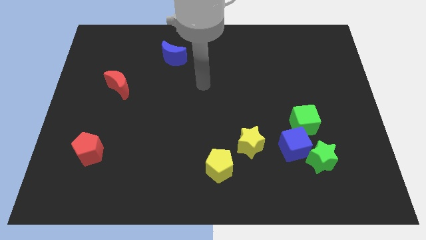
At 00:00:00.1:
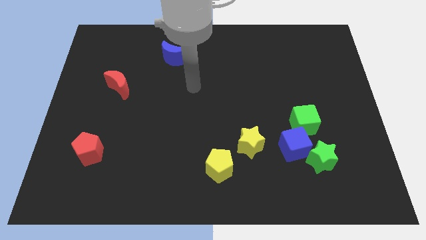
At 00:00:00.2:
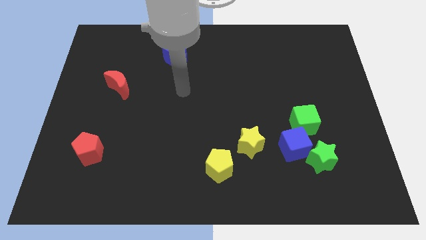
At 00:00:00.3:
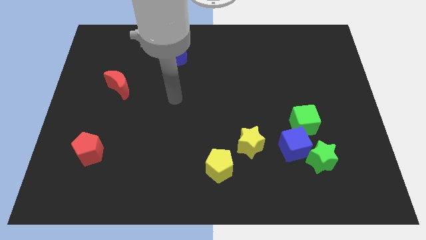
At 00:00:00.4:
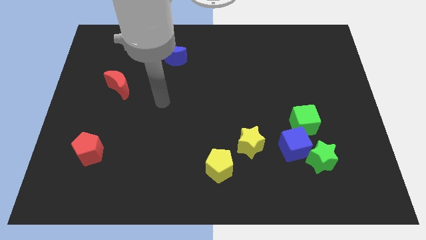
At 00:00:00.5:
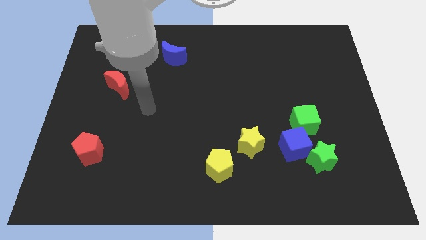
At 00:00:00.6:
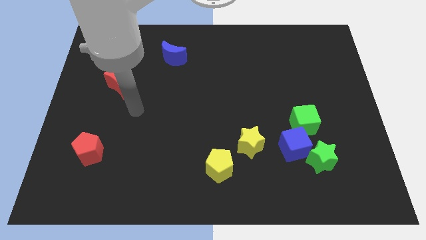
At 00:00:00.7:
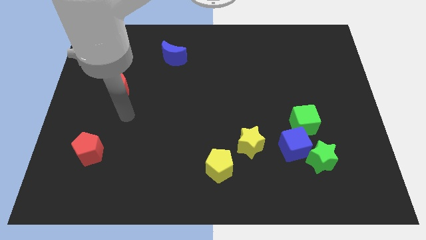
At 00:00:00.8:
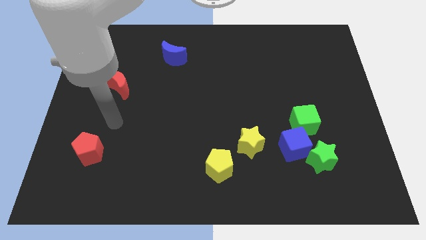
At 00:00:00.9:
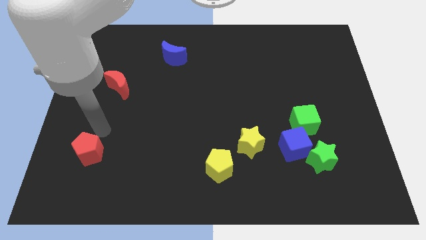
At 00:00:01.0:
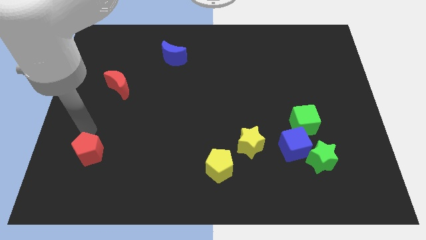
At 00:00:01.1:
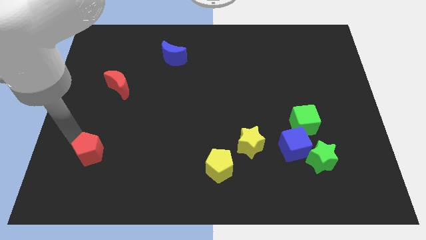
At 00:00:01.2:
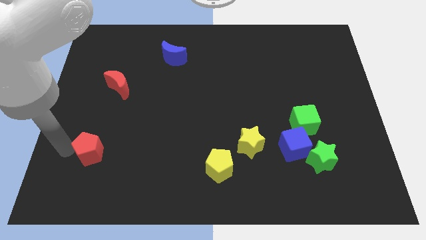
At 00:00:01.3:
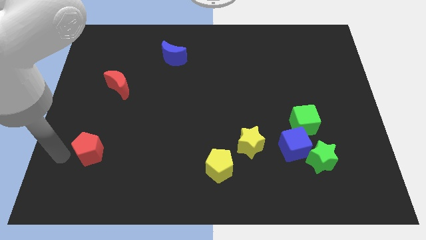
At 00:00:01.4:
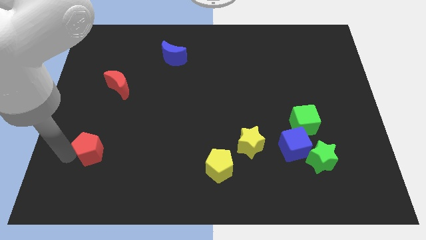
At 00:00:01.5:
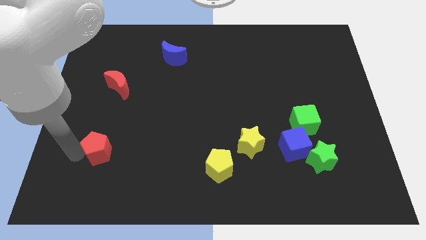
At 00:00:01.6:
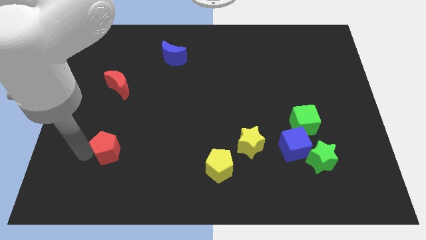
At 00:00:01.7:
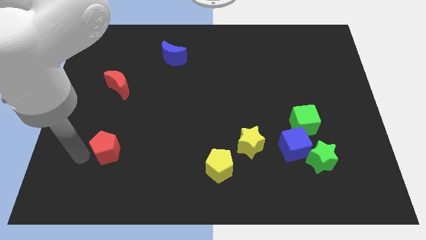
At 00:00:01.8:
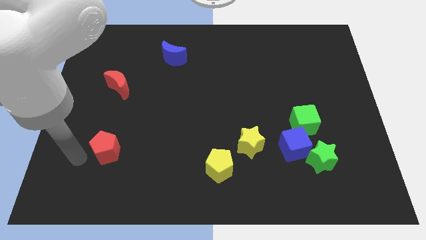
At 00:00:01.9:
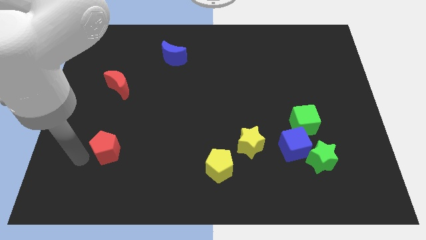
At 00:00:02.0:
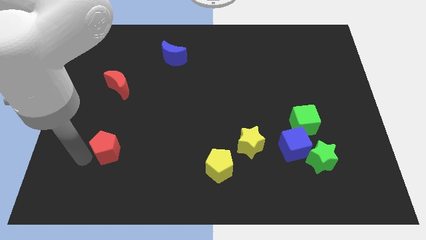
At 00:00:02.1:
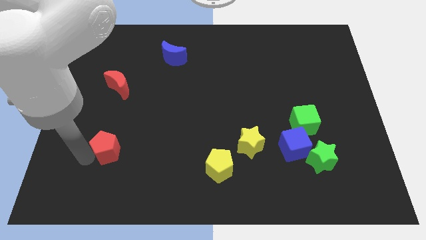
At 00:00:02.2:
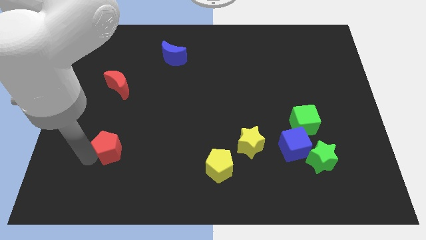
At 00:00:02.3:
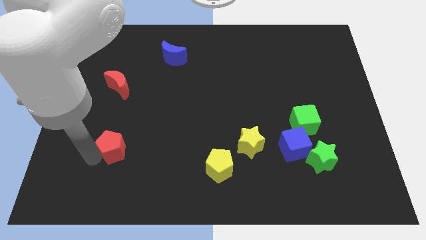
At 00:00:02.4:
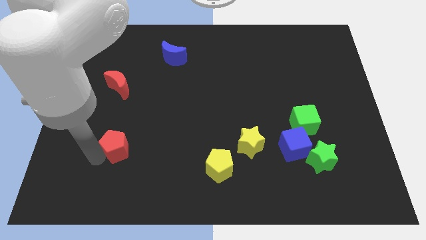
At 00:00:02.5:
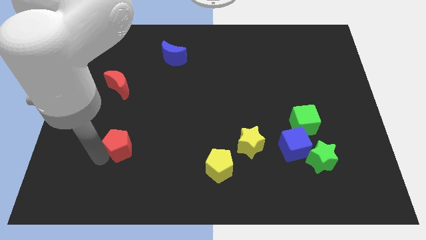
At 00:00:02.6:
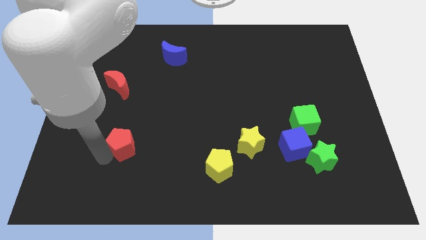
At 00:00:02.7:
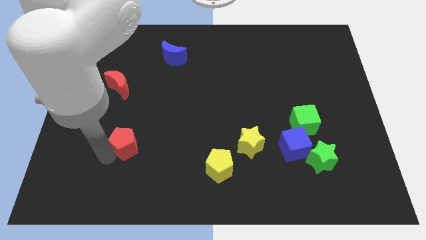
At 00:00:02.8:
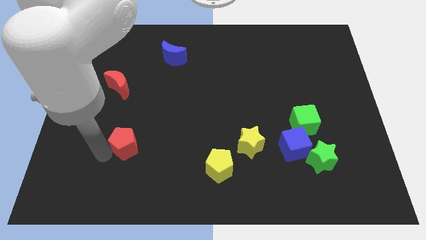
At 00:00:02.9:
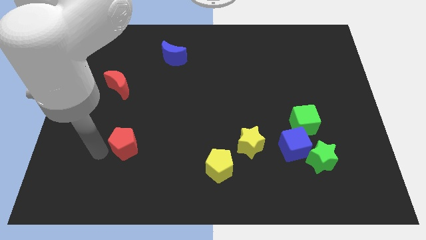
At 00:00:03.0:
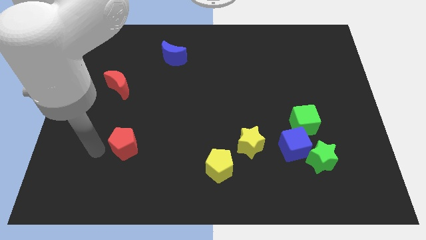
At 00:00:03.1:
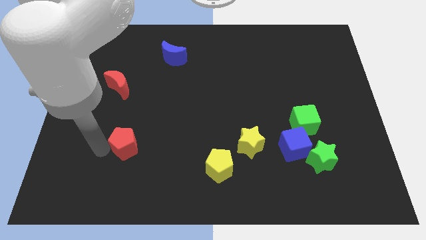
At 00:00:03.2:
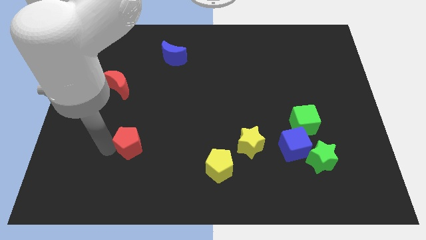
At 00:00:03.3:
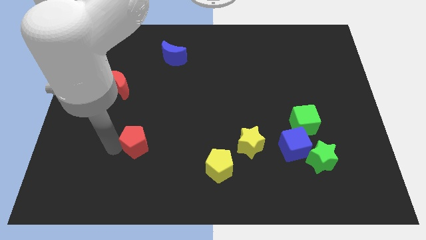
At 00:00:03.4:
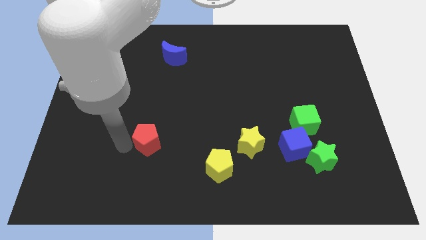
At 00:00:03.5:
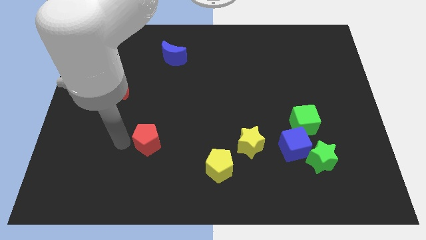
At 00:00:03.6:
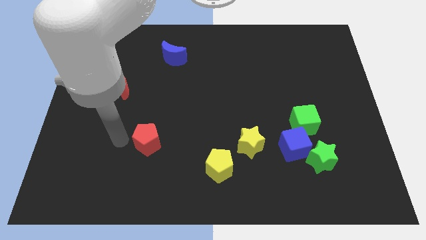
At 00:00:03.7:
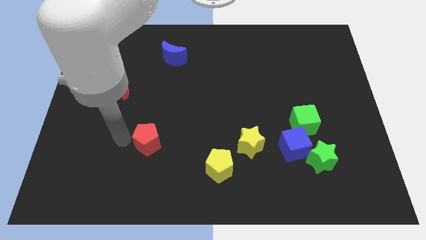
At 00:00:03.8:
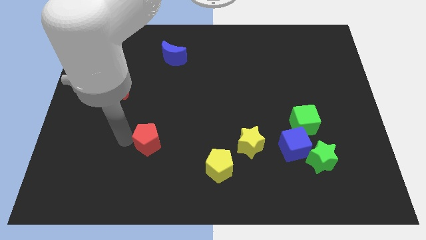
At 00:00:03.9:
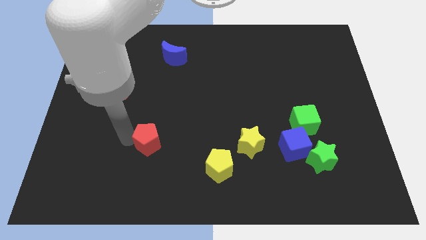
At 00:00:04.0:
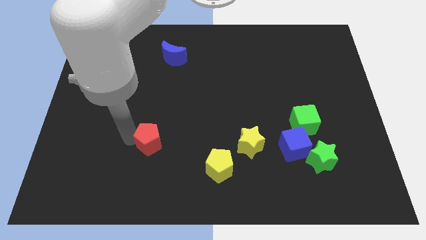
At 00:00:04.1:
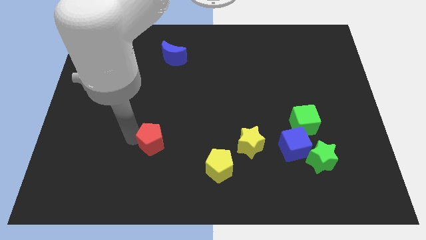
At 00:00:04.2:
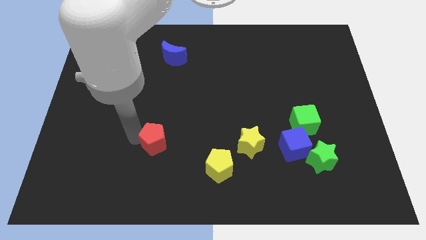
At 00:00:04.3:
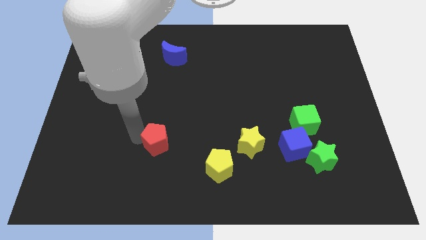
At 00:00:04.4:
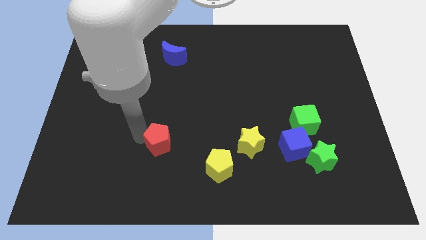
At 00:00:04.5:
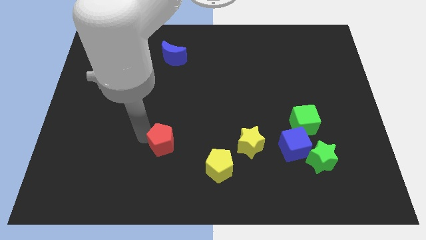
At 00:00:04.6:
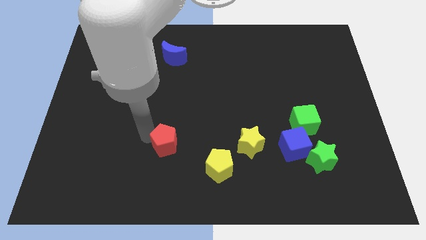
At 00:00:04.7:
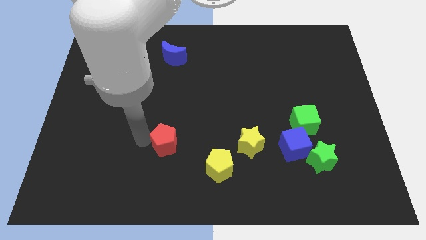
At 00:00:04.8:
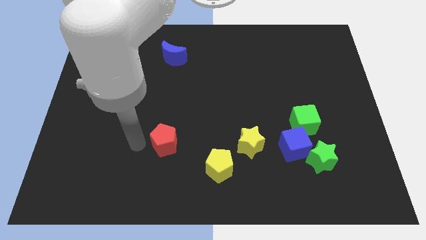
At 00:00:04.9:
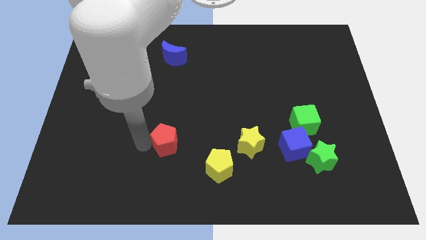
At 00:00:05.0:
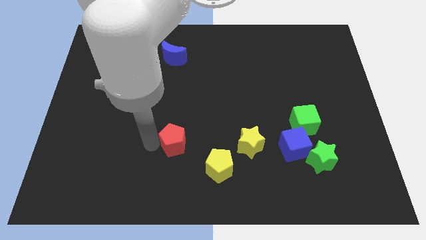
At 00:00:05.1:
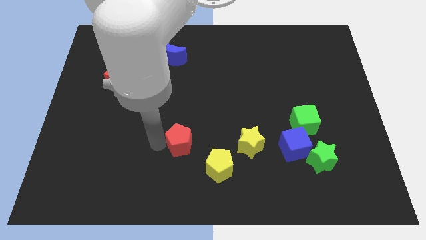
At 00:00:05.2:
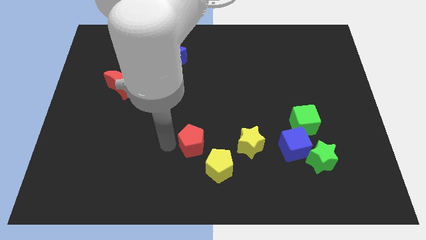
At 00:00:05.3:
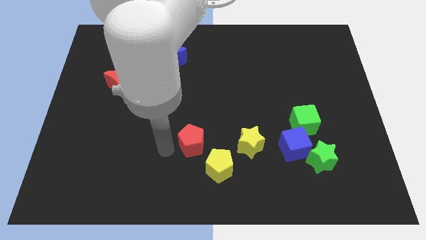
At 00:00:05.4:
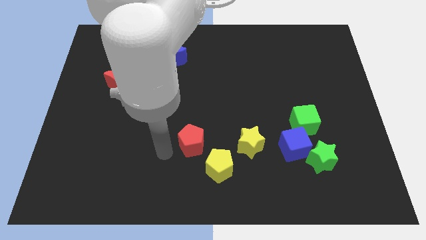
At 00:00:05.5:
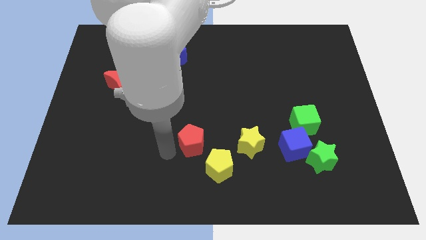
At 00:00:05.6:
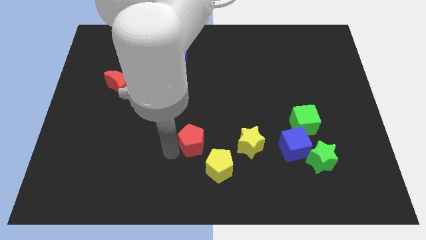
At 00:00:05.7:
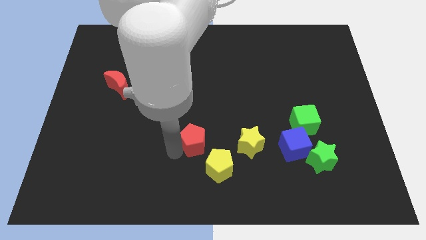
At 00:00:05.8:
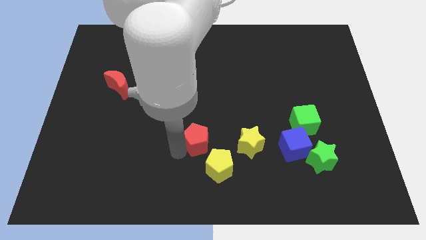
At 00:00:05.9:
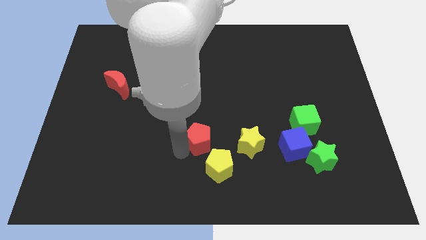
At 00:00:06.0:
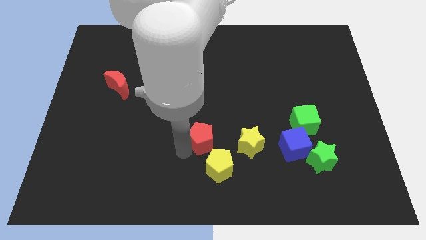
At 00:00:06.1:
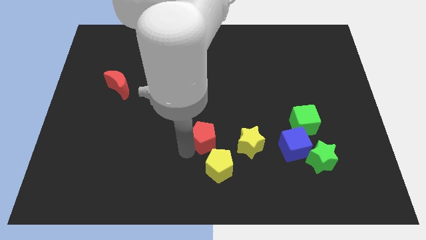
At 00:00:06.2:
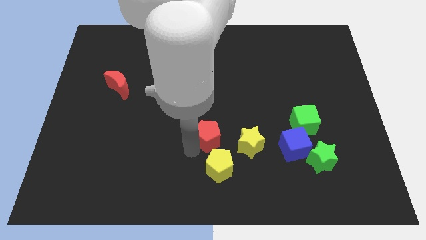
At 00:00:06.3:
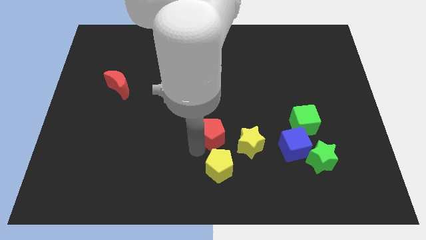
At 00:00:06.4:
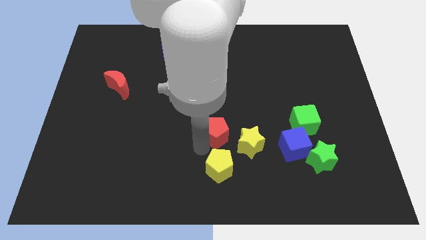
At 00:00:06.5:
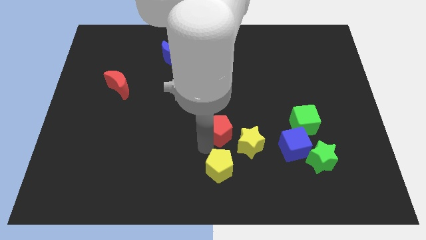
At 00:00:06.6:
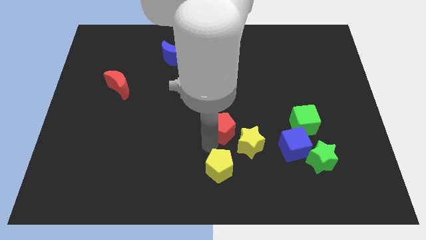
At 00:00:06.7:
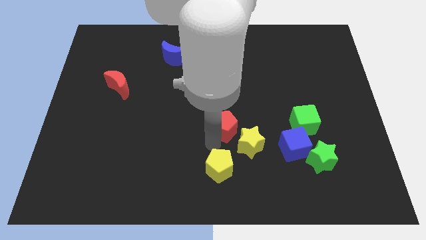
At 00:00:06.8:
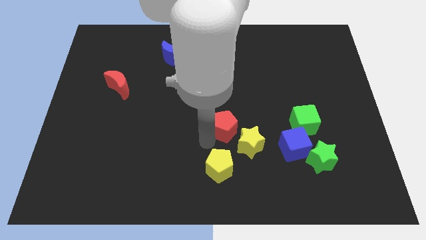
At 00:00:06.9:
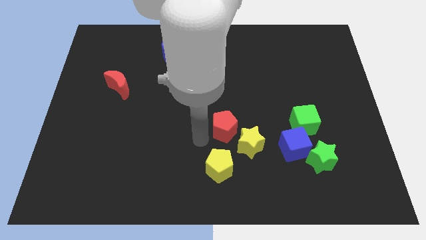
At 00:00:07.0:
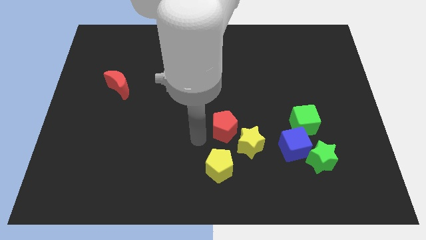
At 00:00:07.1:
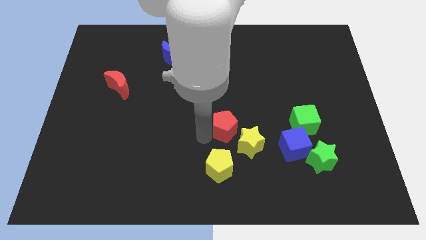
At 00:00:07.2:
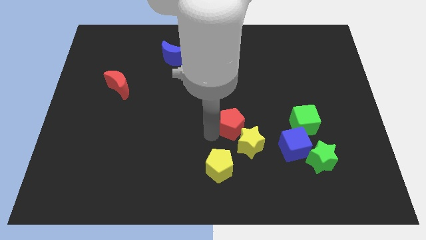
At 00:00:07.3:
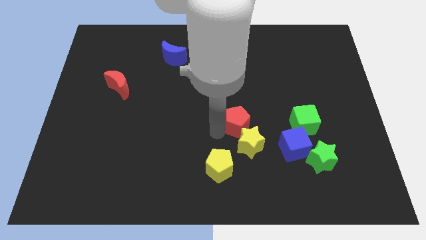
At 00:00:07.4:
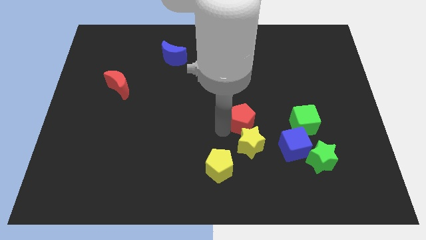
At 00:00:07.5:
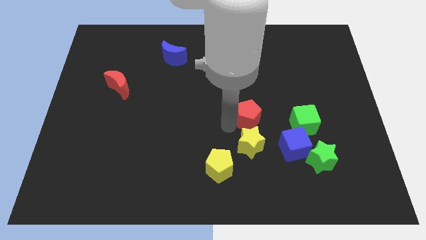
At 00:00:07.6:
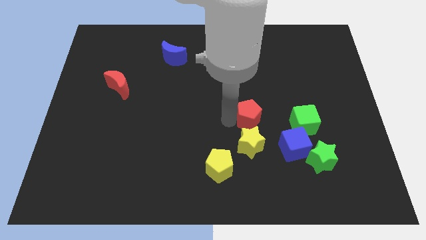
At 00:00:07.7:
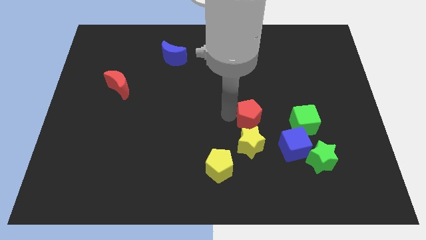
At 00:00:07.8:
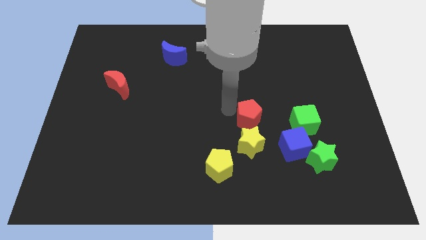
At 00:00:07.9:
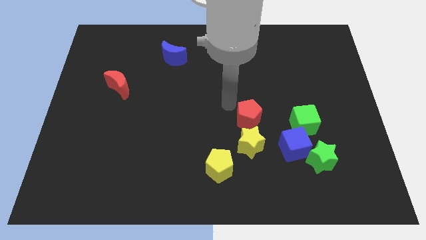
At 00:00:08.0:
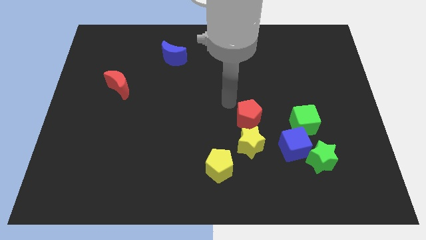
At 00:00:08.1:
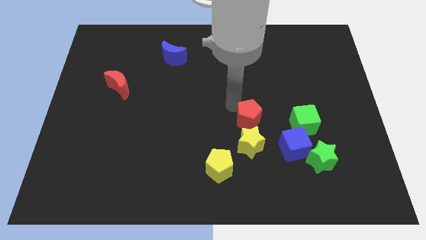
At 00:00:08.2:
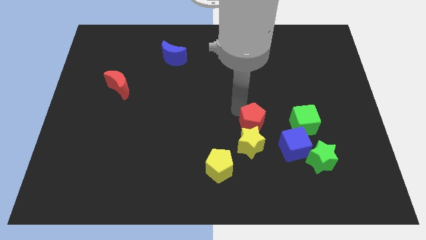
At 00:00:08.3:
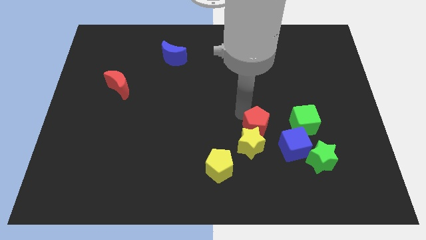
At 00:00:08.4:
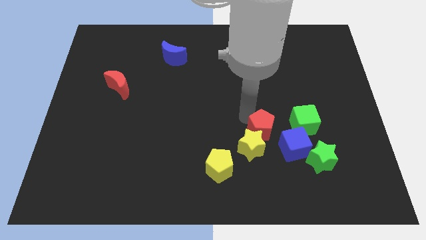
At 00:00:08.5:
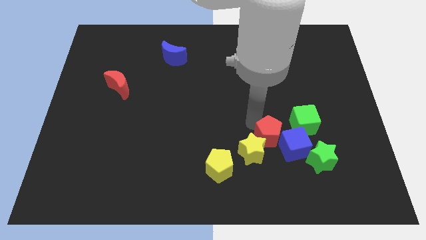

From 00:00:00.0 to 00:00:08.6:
move the red pentagon towards the blue cube
